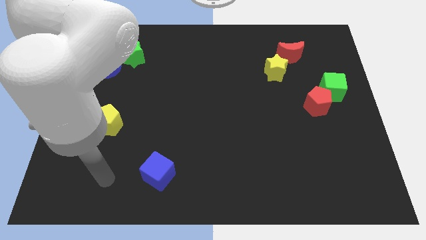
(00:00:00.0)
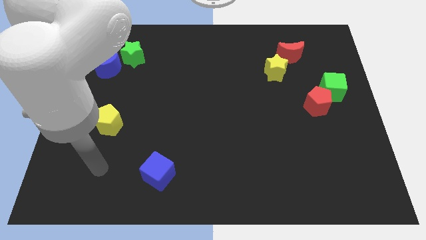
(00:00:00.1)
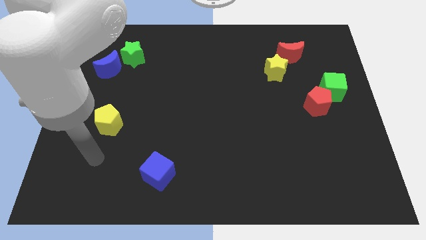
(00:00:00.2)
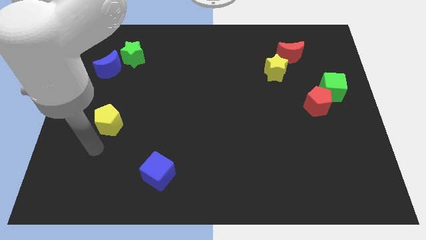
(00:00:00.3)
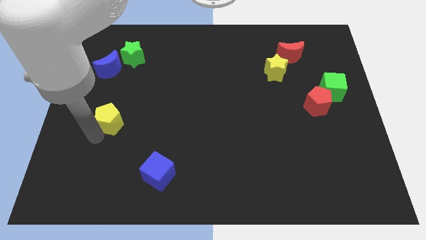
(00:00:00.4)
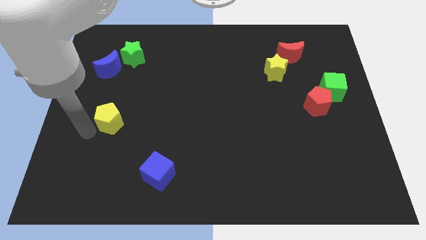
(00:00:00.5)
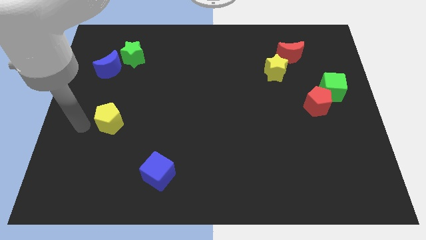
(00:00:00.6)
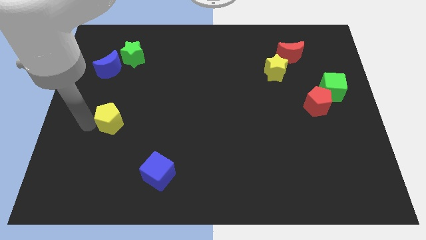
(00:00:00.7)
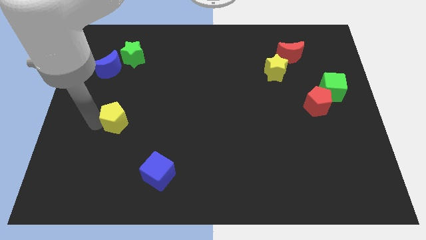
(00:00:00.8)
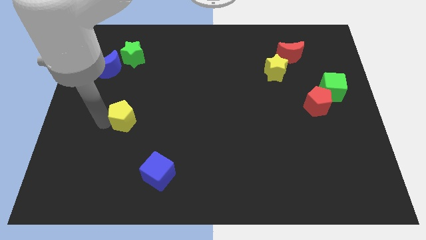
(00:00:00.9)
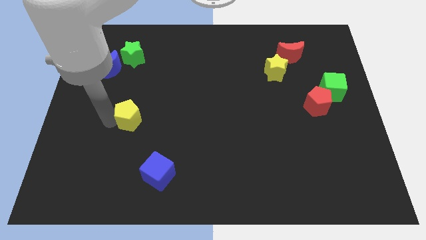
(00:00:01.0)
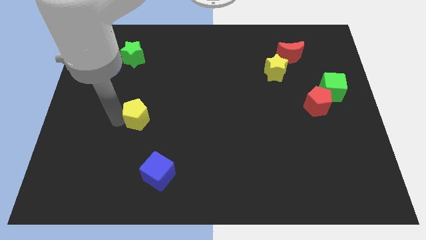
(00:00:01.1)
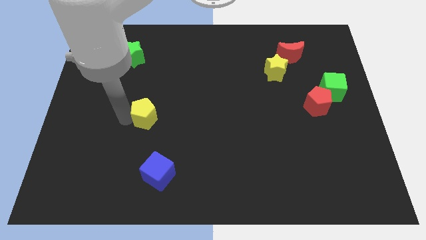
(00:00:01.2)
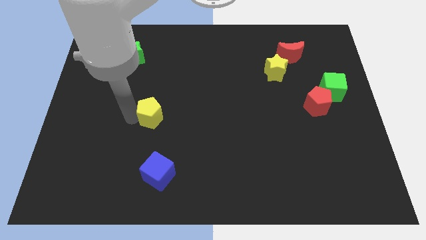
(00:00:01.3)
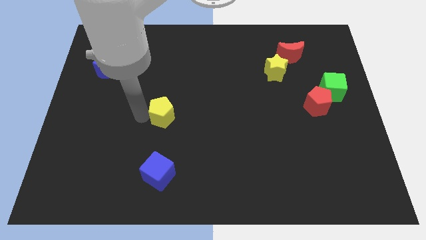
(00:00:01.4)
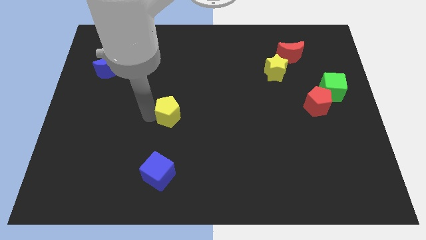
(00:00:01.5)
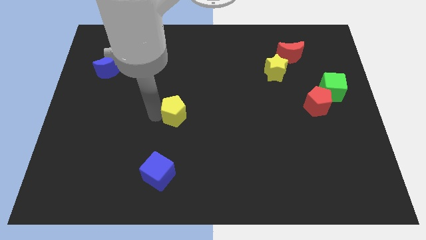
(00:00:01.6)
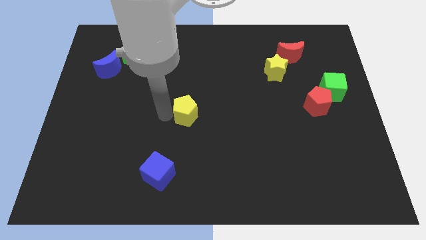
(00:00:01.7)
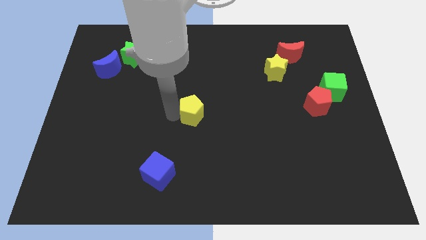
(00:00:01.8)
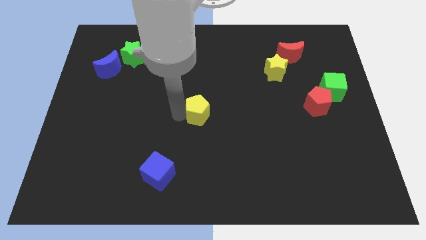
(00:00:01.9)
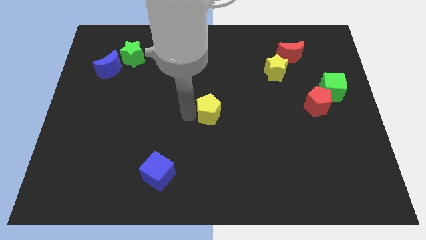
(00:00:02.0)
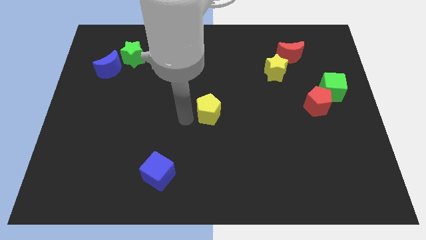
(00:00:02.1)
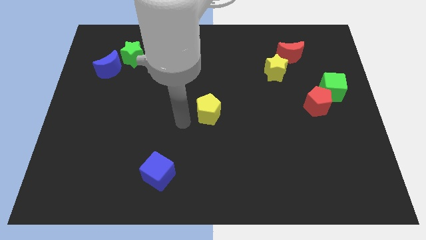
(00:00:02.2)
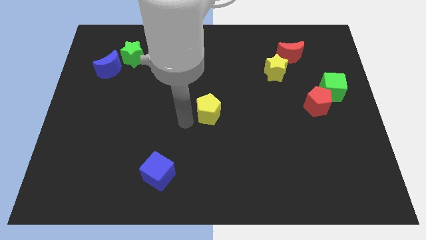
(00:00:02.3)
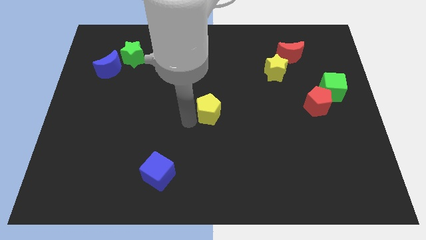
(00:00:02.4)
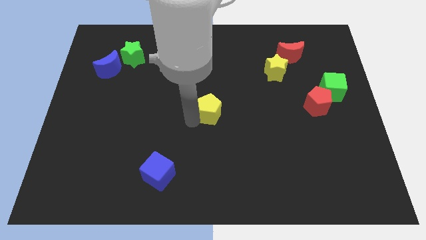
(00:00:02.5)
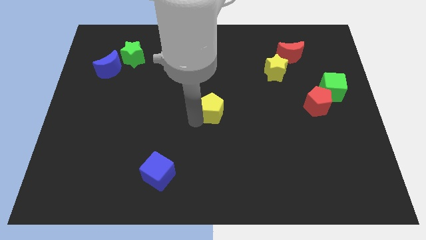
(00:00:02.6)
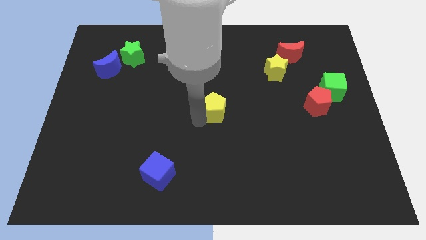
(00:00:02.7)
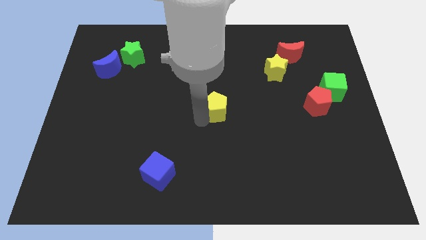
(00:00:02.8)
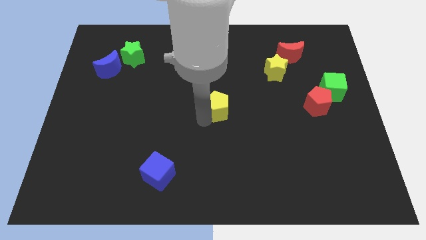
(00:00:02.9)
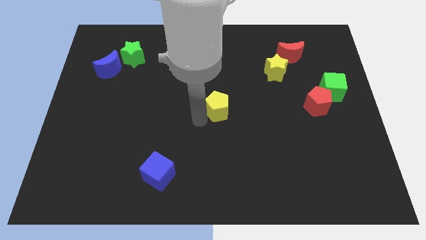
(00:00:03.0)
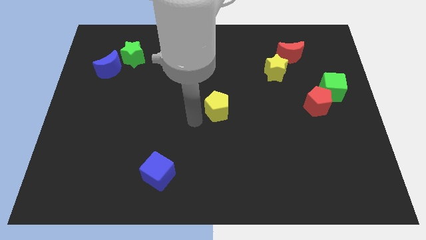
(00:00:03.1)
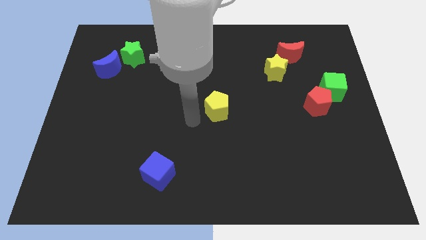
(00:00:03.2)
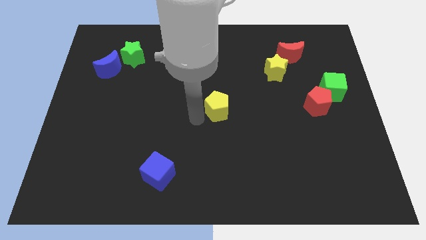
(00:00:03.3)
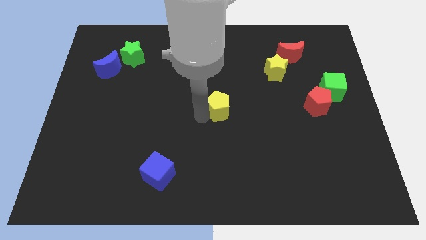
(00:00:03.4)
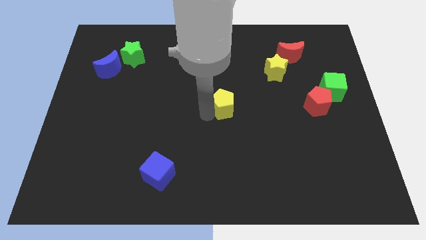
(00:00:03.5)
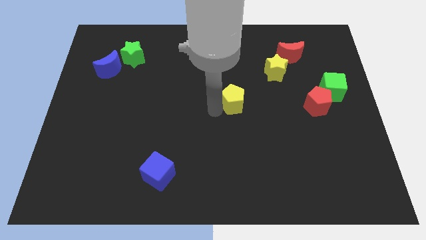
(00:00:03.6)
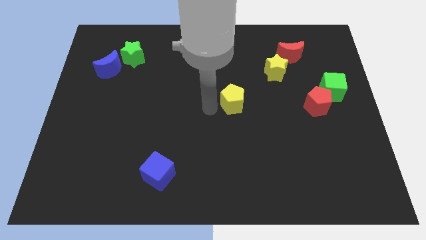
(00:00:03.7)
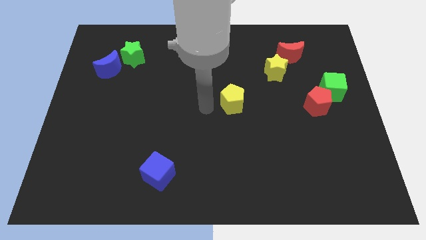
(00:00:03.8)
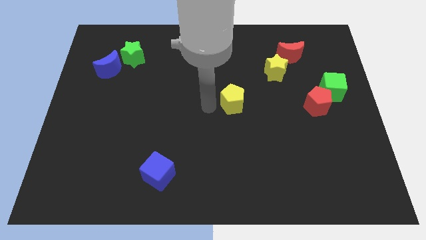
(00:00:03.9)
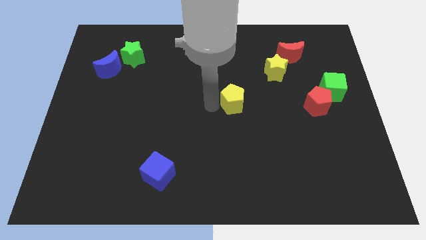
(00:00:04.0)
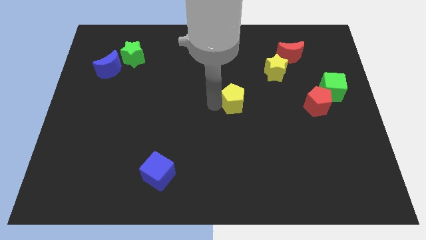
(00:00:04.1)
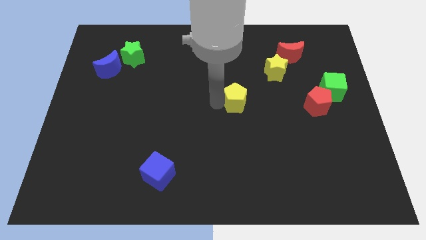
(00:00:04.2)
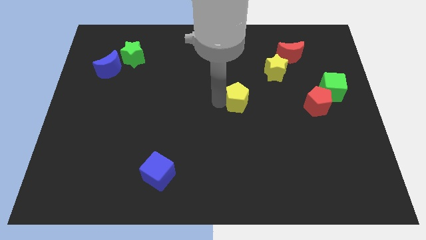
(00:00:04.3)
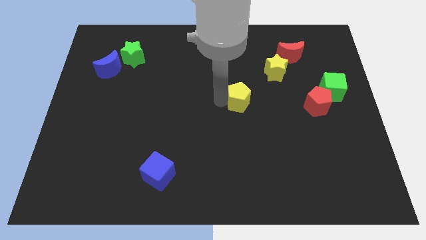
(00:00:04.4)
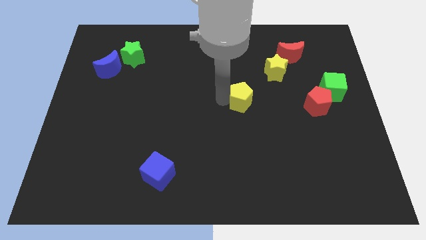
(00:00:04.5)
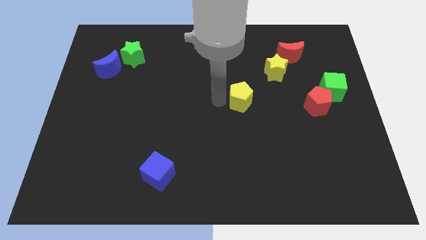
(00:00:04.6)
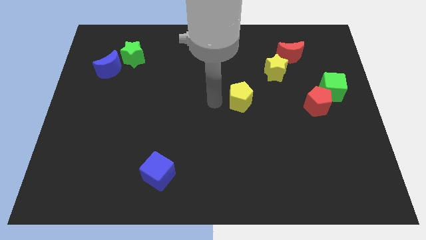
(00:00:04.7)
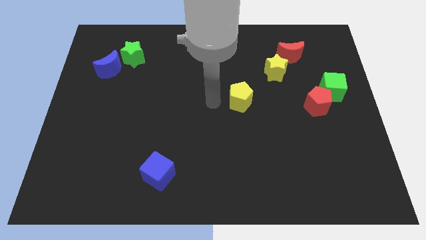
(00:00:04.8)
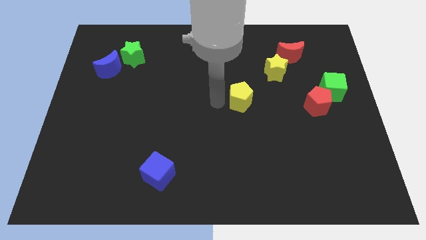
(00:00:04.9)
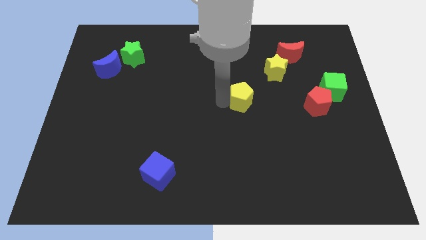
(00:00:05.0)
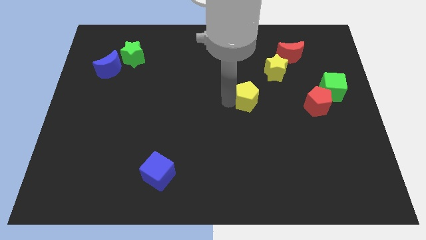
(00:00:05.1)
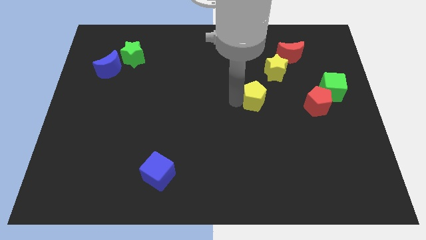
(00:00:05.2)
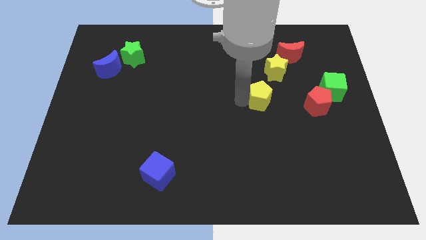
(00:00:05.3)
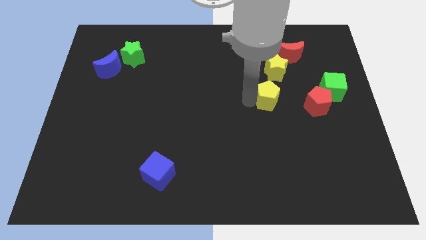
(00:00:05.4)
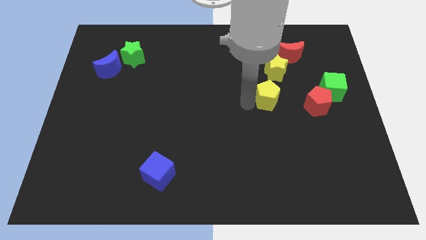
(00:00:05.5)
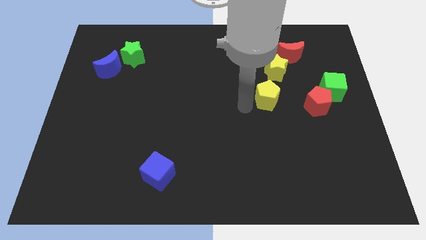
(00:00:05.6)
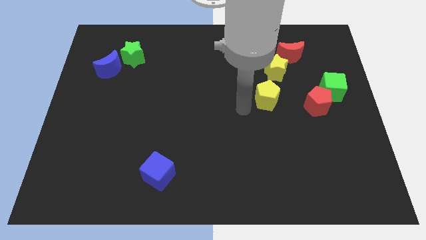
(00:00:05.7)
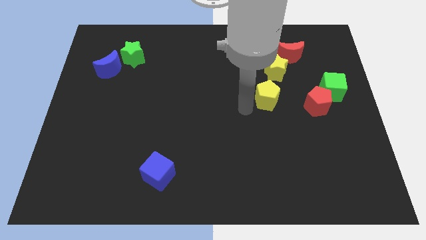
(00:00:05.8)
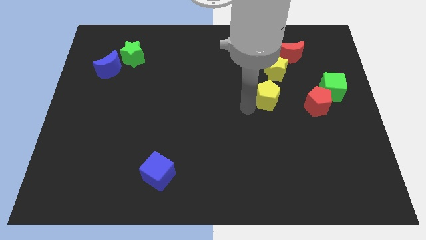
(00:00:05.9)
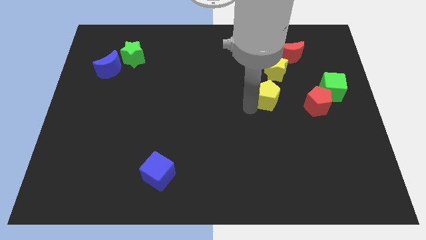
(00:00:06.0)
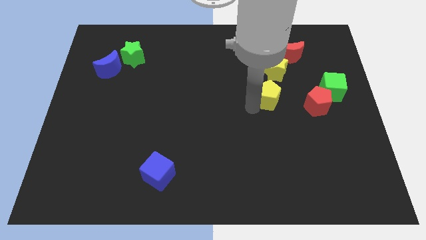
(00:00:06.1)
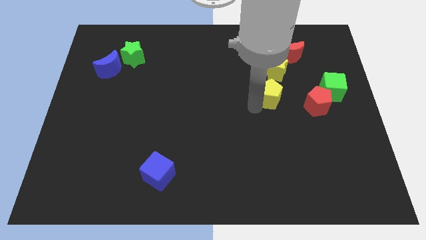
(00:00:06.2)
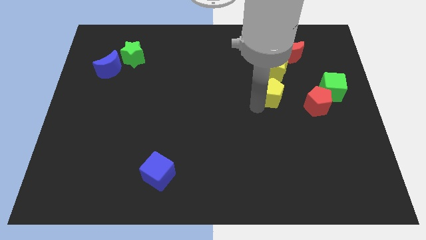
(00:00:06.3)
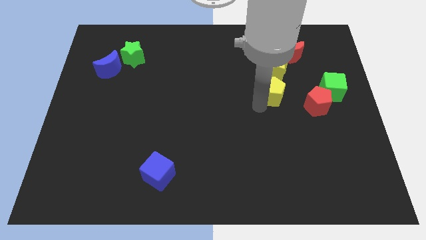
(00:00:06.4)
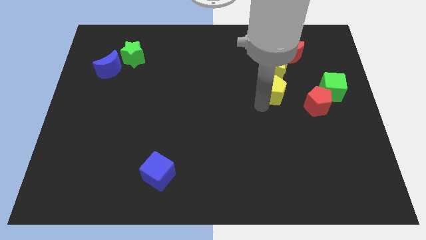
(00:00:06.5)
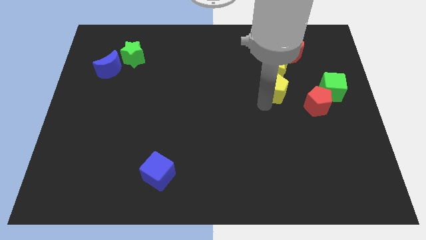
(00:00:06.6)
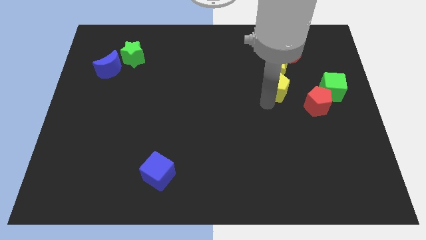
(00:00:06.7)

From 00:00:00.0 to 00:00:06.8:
slide the yellow pentagon to the bottom right side of the yellow star

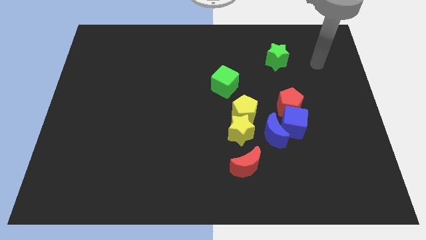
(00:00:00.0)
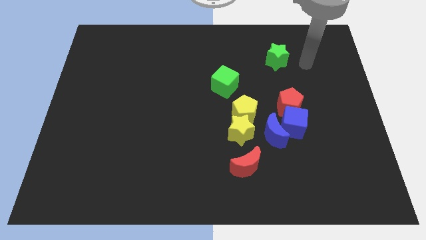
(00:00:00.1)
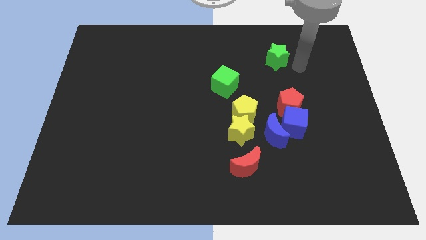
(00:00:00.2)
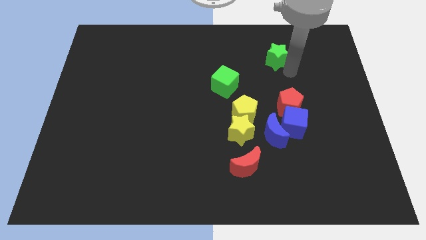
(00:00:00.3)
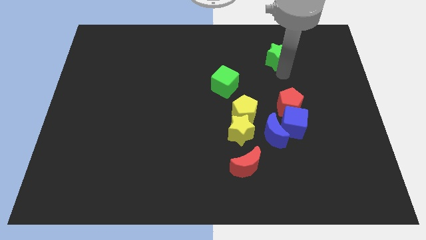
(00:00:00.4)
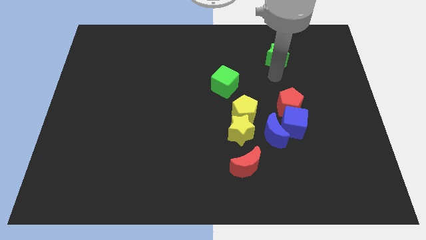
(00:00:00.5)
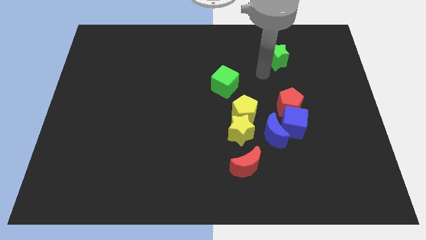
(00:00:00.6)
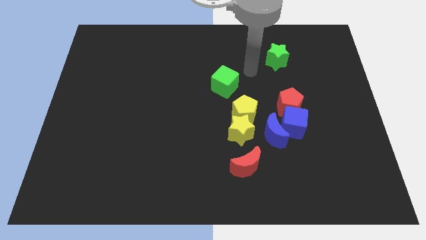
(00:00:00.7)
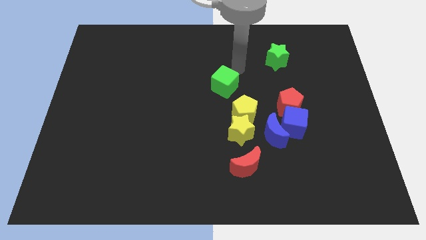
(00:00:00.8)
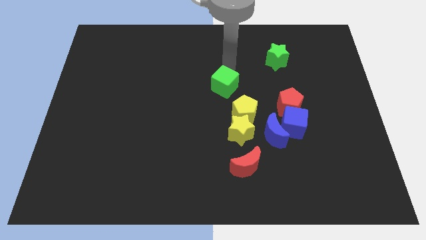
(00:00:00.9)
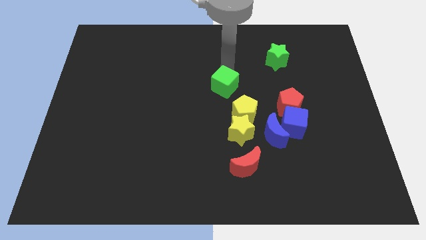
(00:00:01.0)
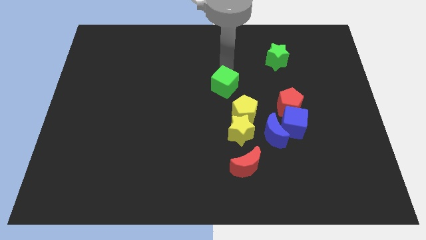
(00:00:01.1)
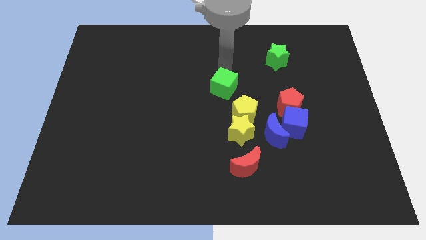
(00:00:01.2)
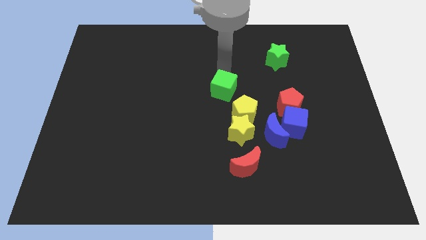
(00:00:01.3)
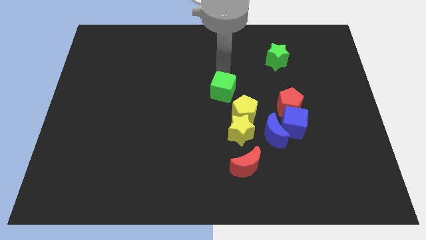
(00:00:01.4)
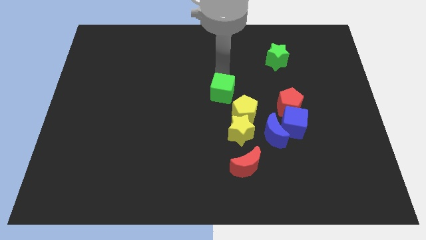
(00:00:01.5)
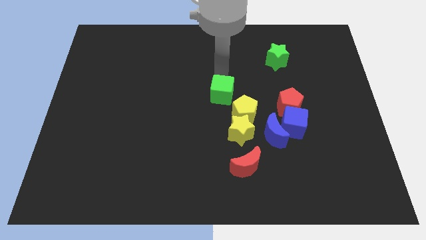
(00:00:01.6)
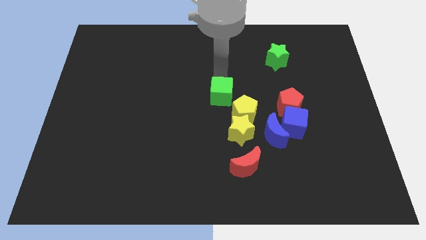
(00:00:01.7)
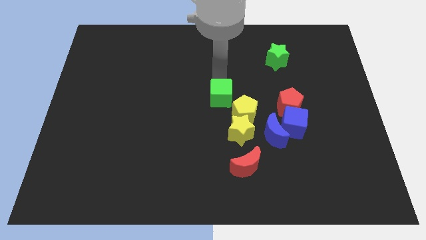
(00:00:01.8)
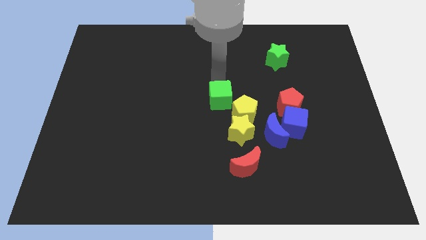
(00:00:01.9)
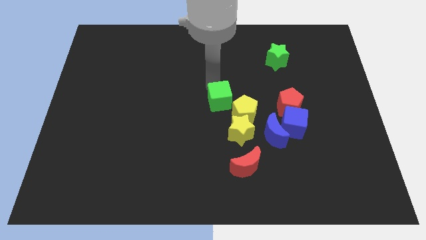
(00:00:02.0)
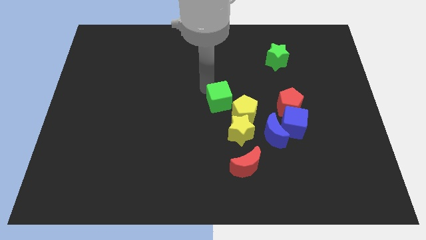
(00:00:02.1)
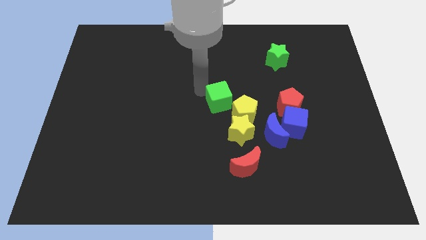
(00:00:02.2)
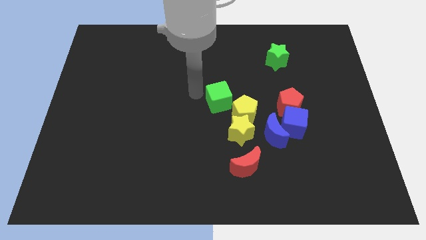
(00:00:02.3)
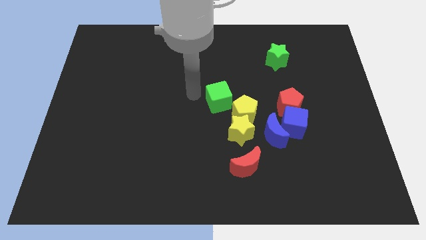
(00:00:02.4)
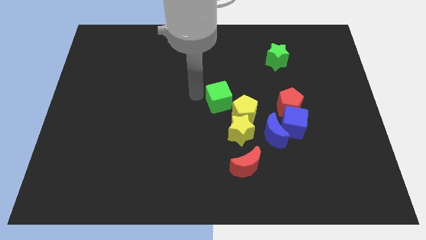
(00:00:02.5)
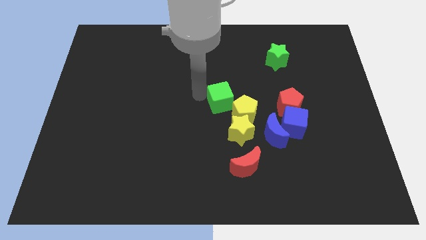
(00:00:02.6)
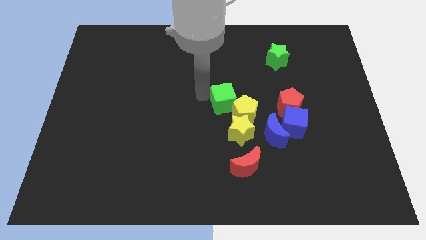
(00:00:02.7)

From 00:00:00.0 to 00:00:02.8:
put the green cube to the left of the red pentagon
